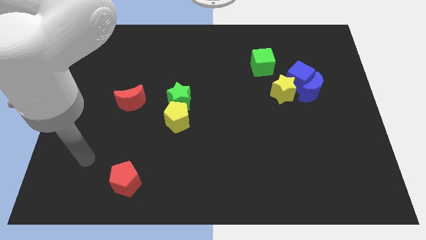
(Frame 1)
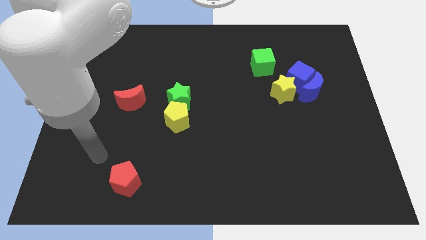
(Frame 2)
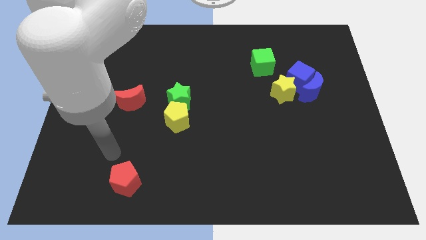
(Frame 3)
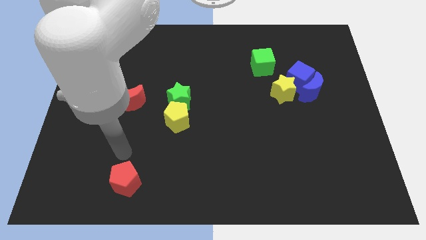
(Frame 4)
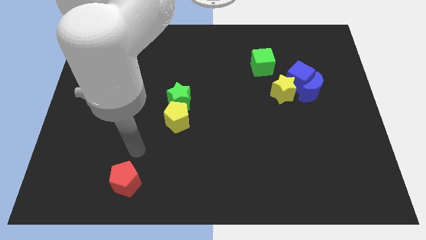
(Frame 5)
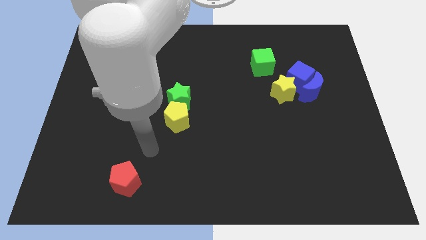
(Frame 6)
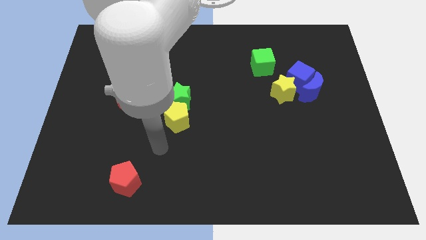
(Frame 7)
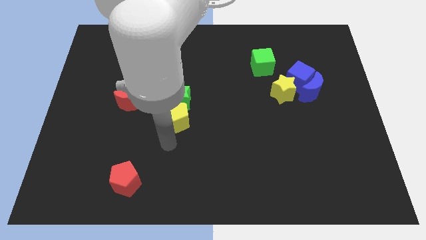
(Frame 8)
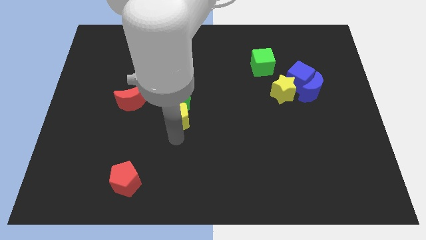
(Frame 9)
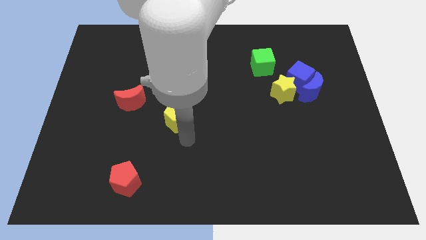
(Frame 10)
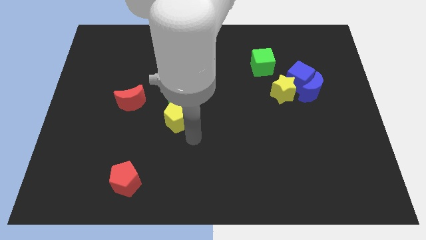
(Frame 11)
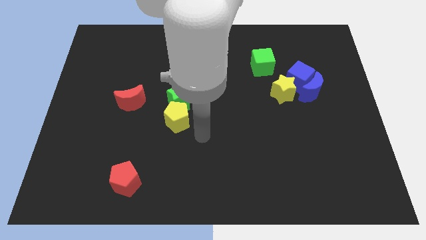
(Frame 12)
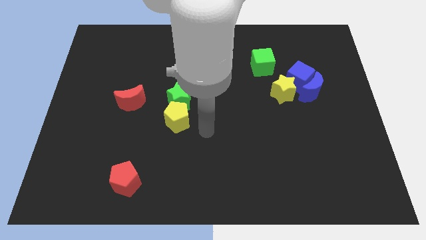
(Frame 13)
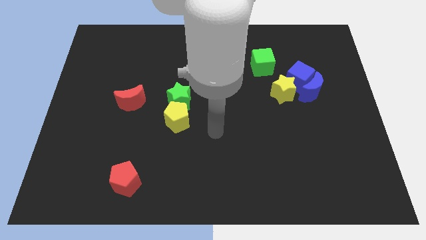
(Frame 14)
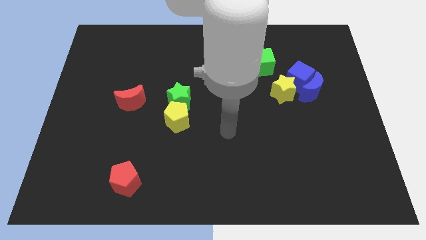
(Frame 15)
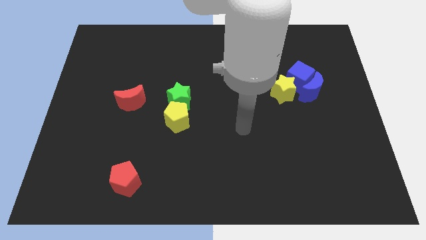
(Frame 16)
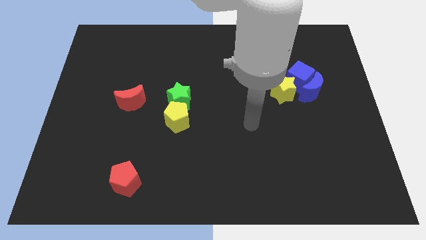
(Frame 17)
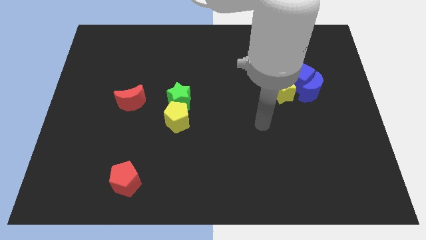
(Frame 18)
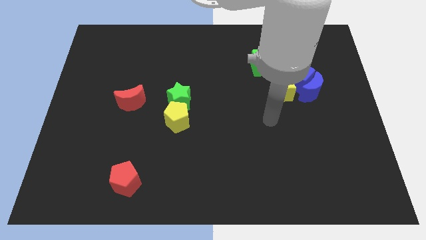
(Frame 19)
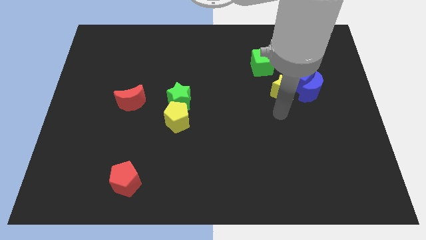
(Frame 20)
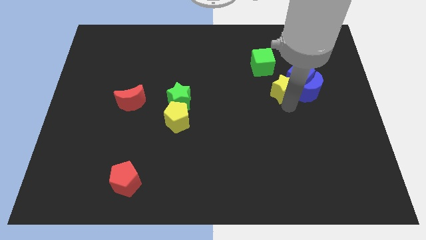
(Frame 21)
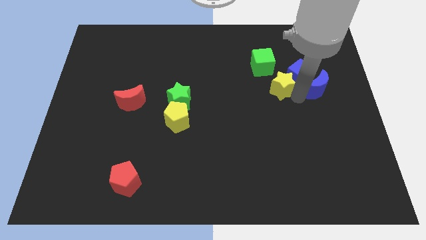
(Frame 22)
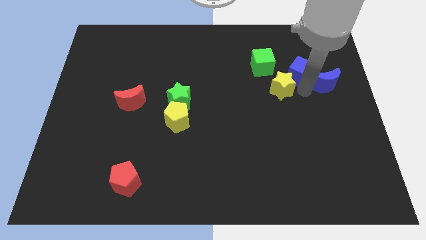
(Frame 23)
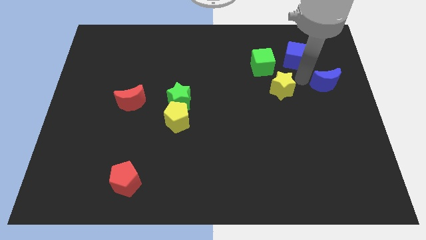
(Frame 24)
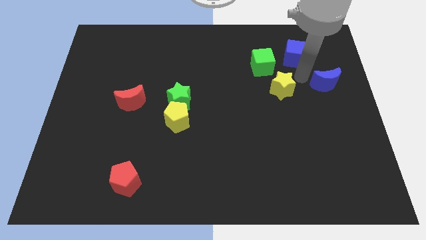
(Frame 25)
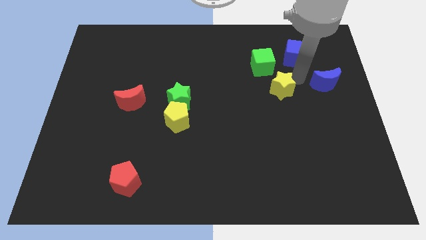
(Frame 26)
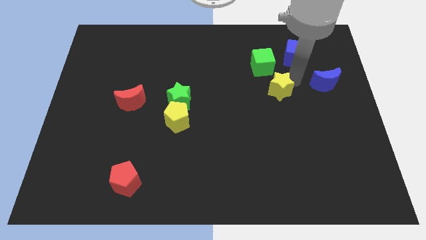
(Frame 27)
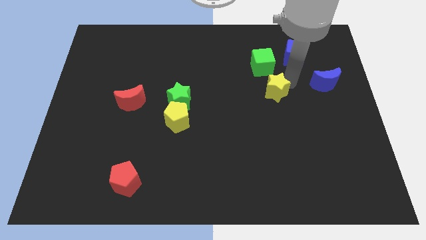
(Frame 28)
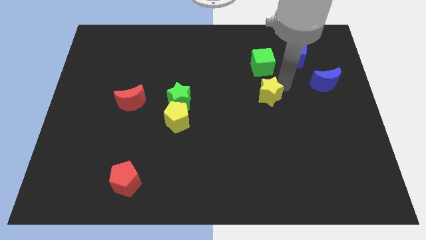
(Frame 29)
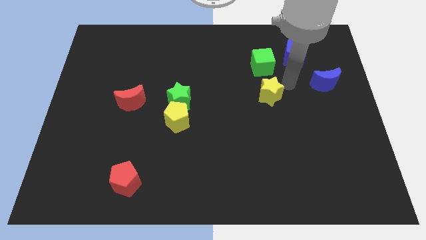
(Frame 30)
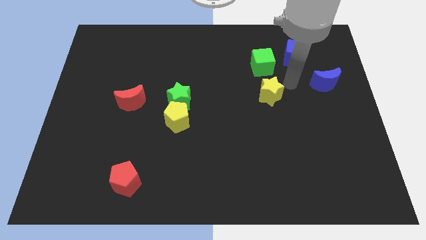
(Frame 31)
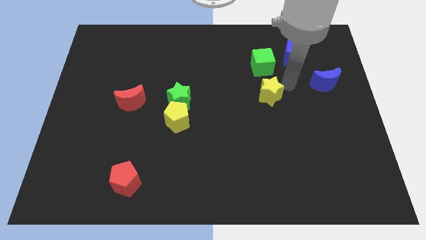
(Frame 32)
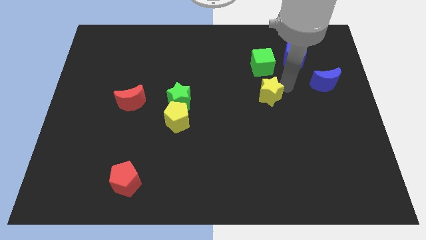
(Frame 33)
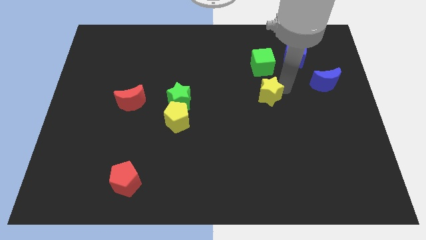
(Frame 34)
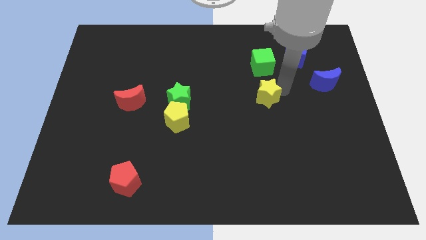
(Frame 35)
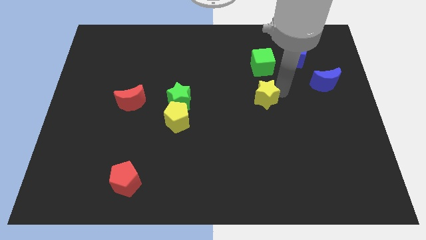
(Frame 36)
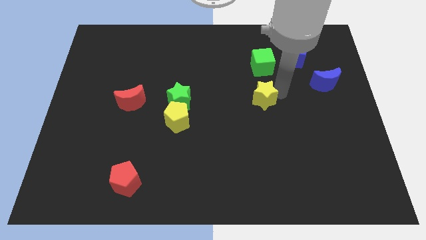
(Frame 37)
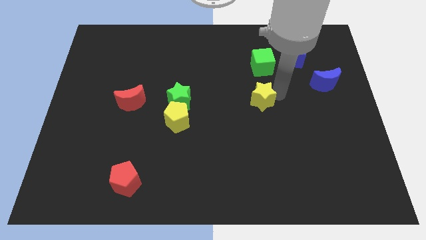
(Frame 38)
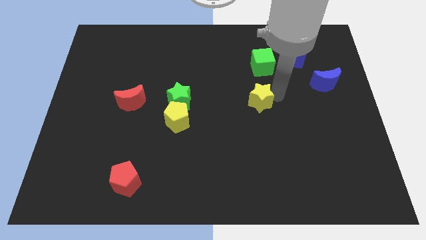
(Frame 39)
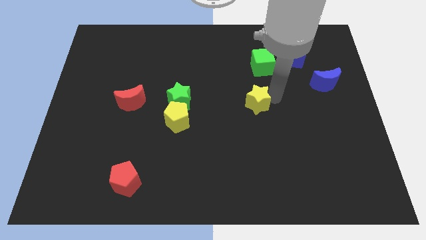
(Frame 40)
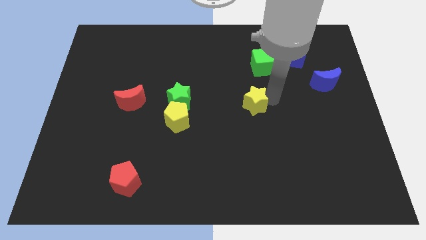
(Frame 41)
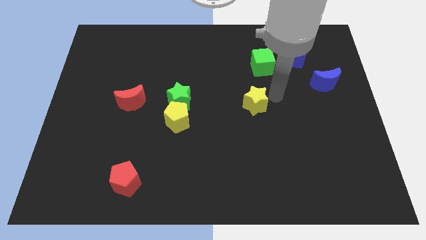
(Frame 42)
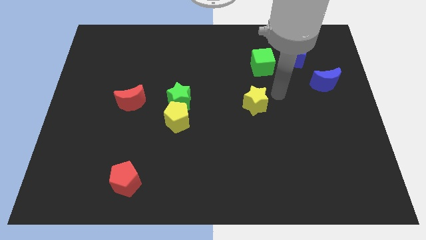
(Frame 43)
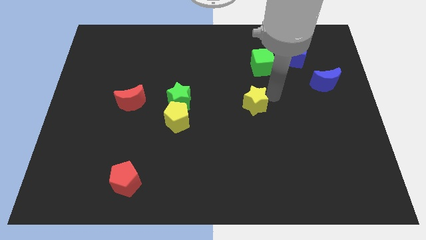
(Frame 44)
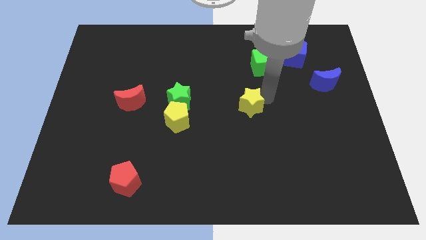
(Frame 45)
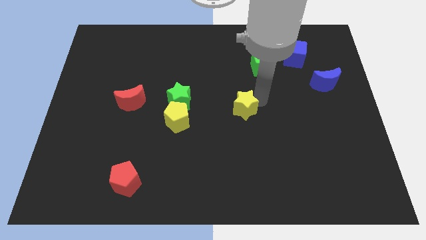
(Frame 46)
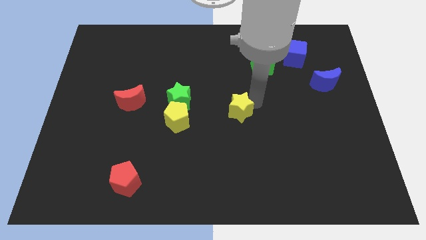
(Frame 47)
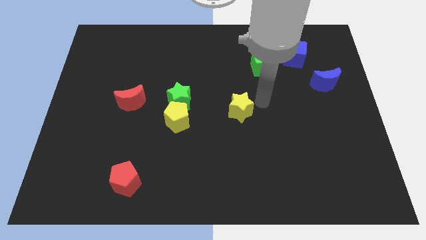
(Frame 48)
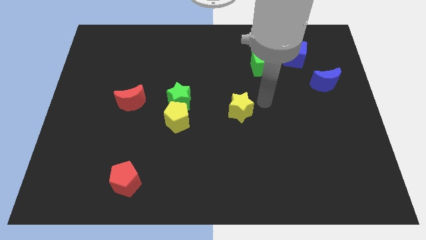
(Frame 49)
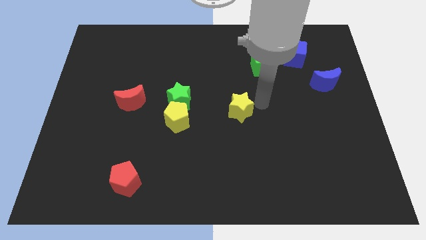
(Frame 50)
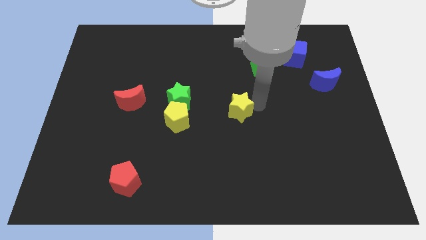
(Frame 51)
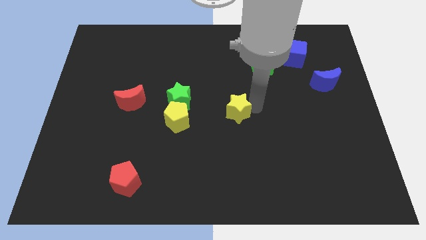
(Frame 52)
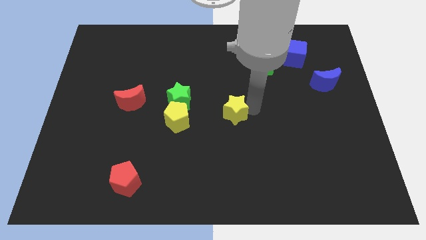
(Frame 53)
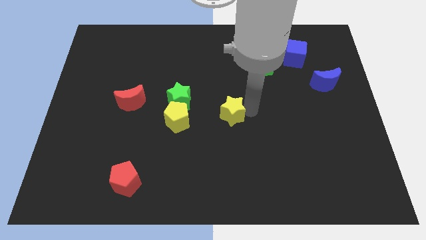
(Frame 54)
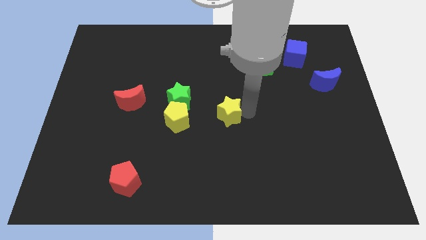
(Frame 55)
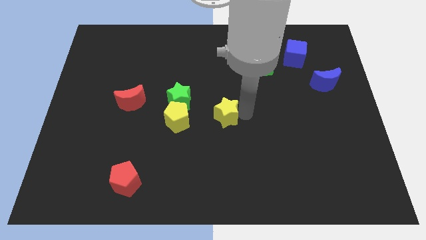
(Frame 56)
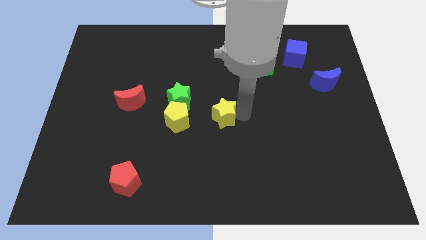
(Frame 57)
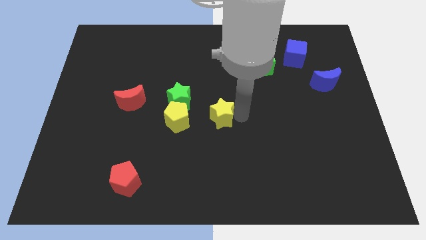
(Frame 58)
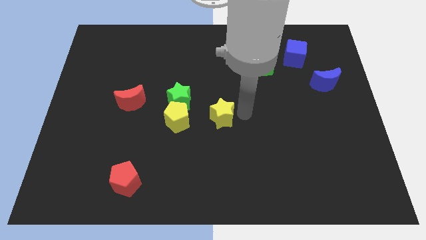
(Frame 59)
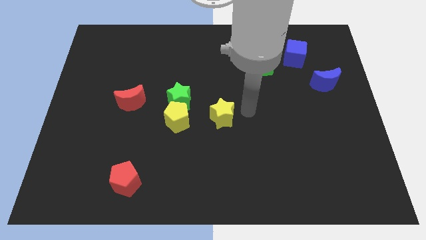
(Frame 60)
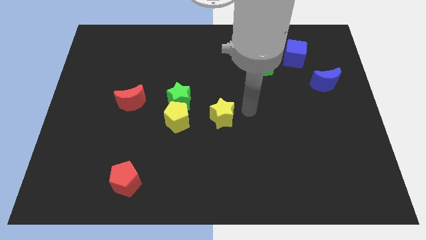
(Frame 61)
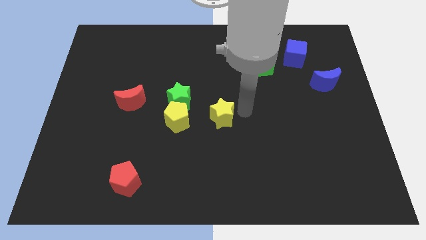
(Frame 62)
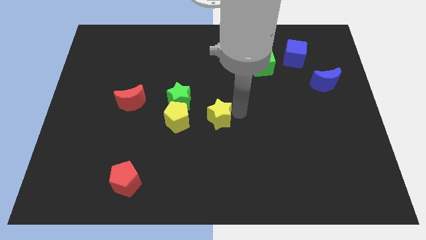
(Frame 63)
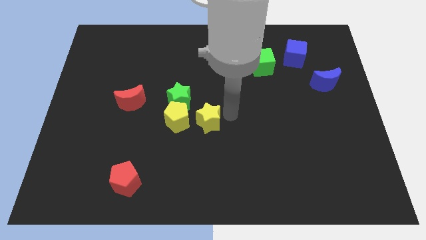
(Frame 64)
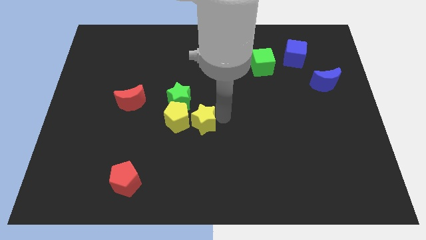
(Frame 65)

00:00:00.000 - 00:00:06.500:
move the yellow star next to the yellow pentagon

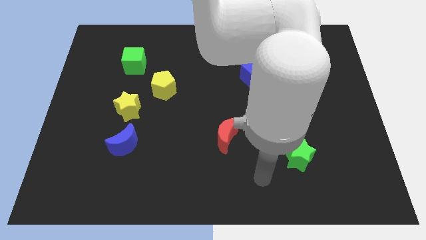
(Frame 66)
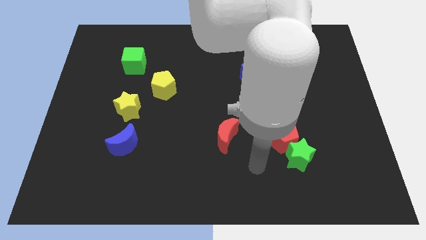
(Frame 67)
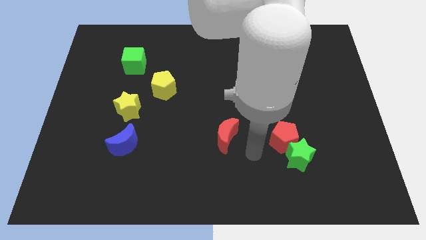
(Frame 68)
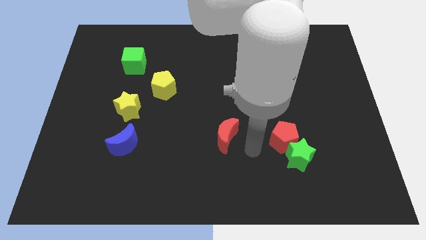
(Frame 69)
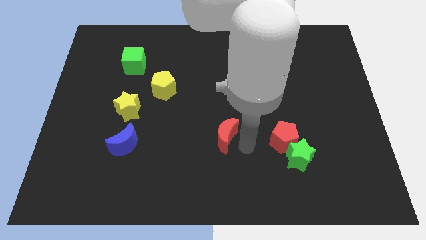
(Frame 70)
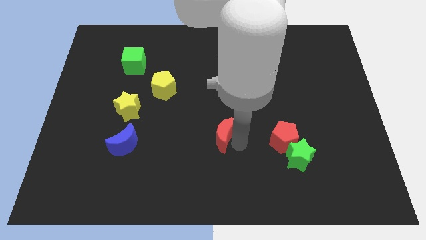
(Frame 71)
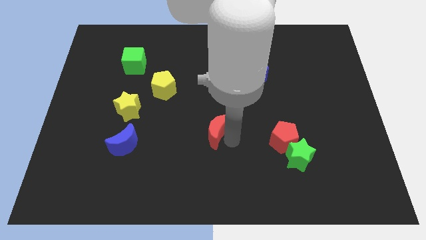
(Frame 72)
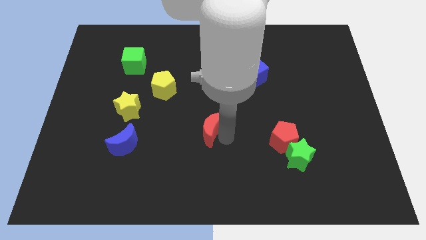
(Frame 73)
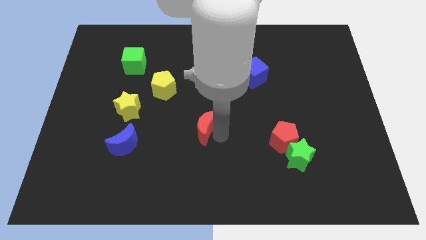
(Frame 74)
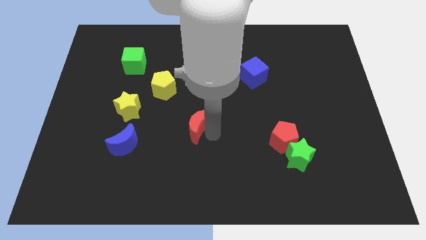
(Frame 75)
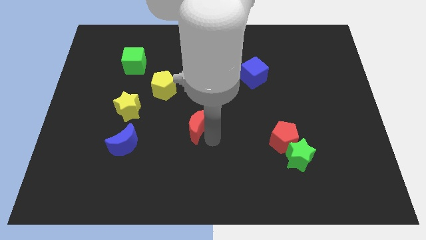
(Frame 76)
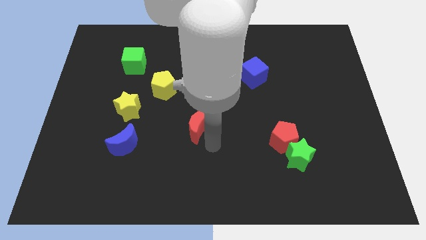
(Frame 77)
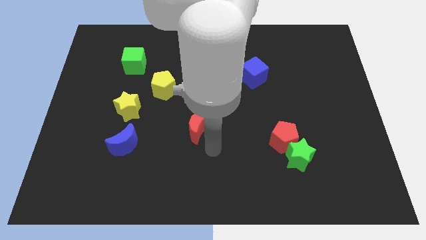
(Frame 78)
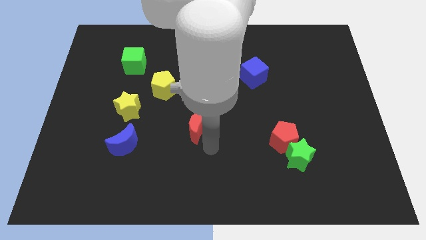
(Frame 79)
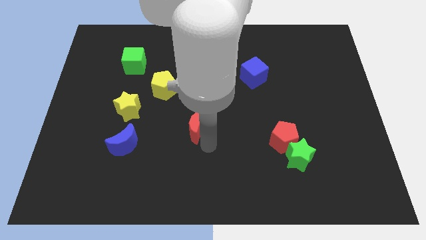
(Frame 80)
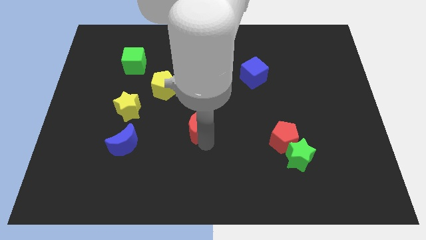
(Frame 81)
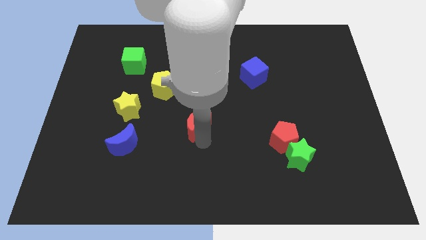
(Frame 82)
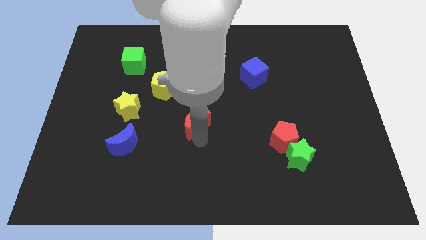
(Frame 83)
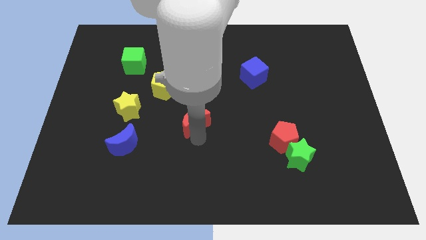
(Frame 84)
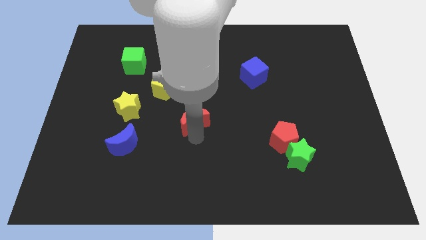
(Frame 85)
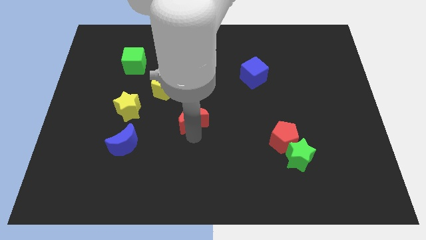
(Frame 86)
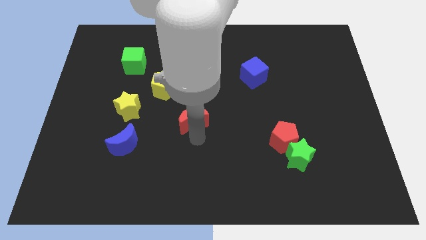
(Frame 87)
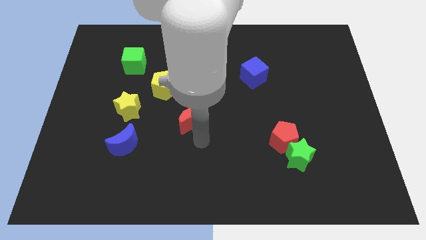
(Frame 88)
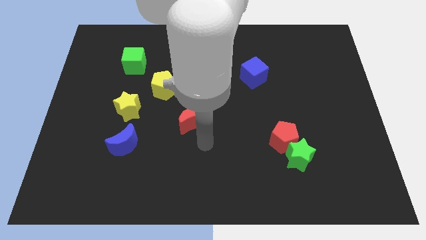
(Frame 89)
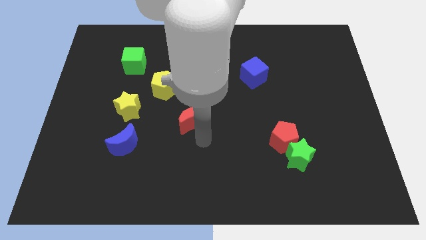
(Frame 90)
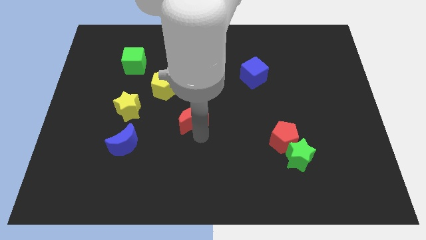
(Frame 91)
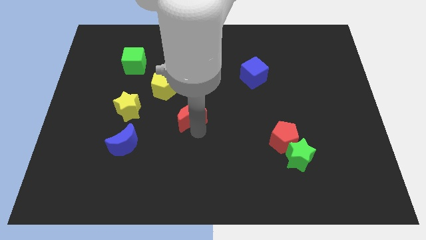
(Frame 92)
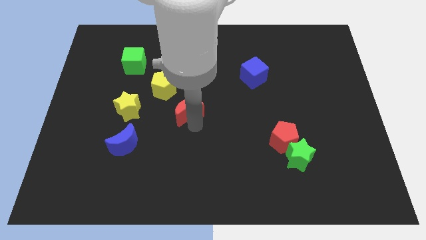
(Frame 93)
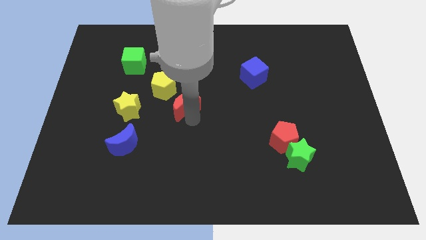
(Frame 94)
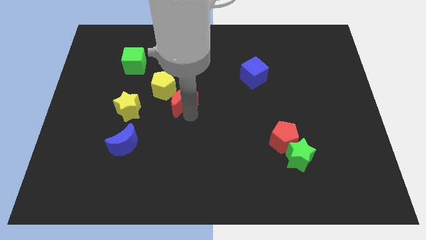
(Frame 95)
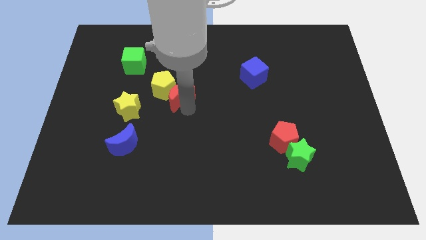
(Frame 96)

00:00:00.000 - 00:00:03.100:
put the red moon close to the yellow pentagon
